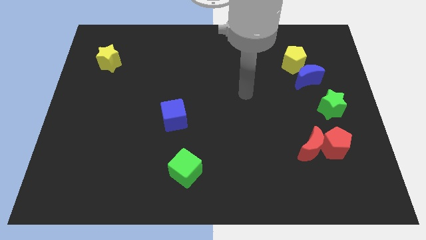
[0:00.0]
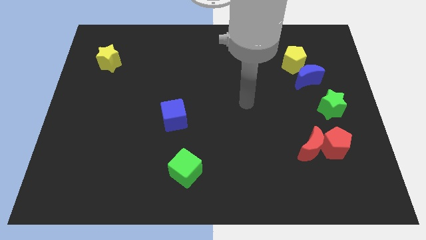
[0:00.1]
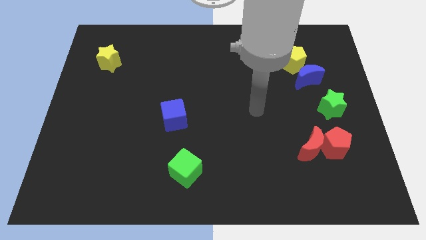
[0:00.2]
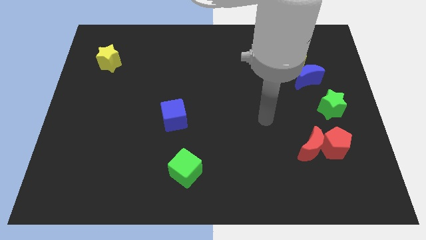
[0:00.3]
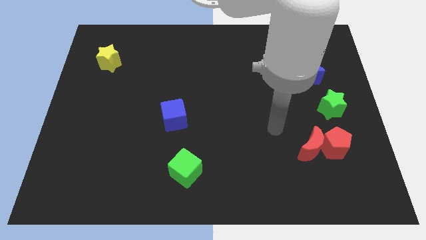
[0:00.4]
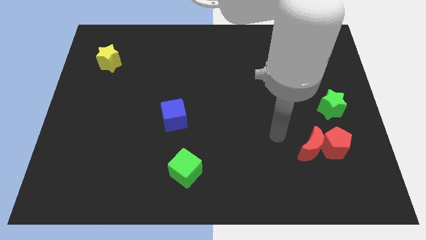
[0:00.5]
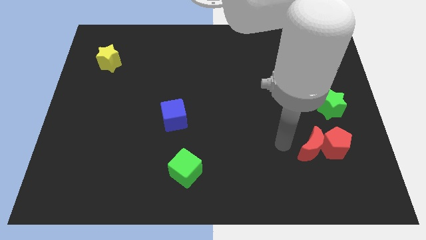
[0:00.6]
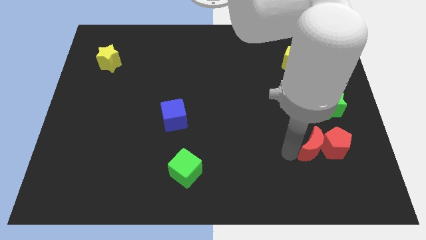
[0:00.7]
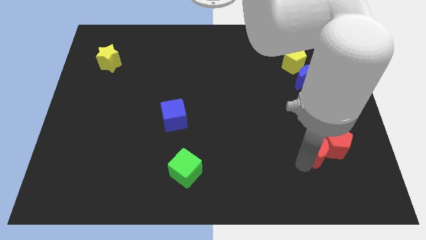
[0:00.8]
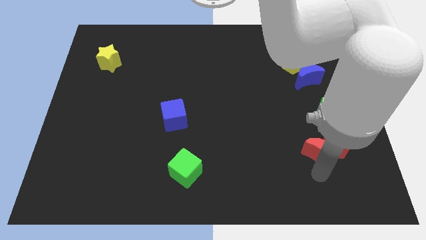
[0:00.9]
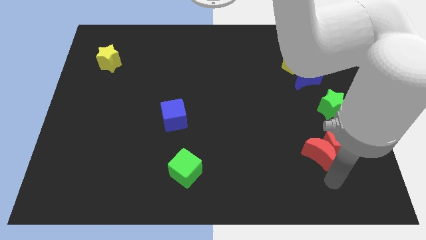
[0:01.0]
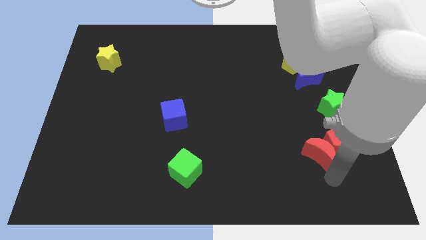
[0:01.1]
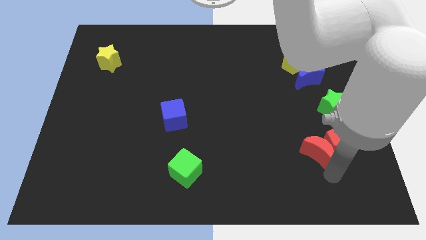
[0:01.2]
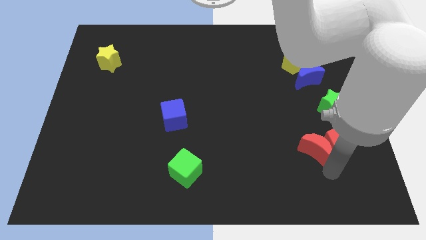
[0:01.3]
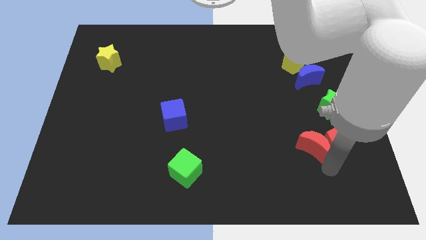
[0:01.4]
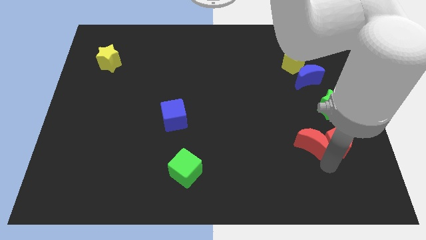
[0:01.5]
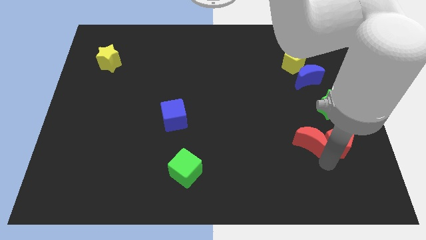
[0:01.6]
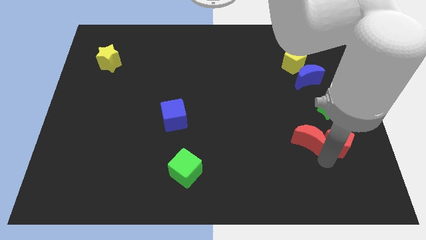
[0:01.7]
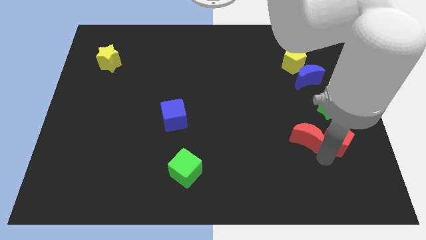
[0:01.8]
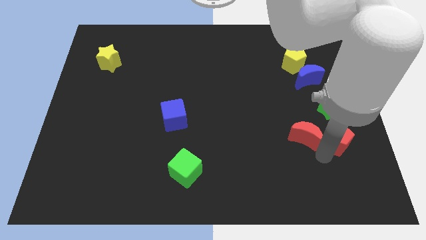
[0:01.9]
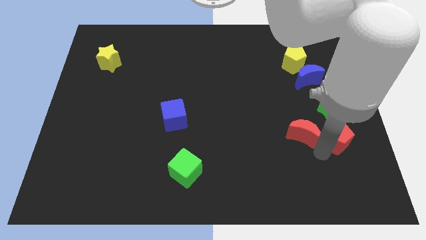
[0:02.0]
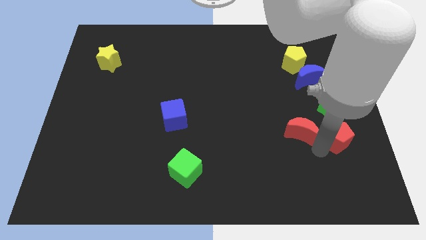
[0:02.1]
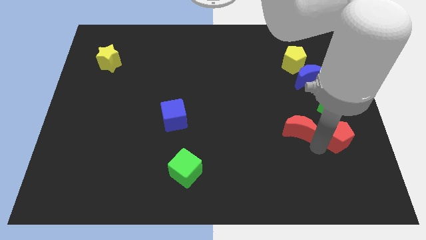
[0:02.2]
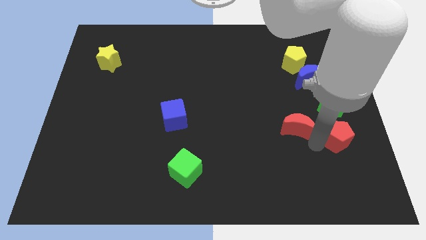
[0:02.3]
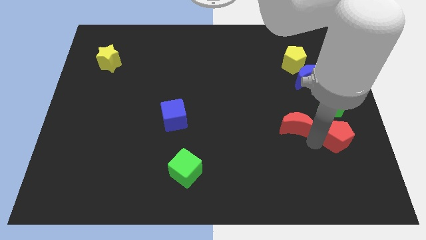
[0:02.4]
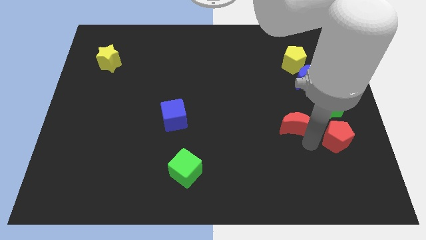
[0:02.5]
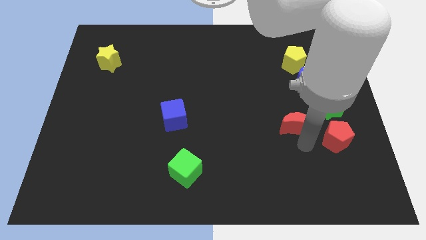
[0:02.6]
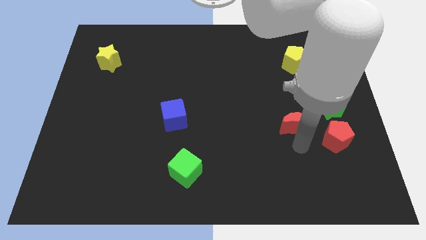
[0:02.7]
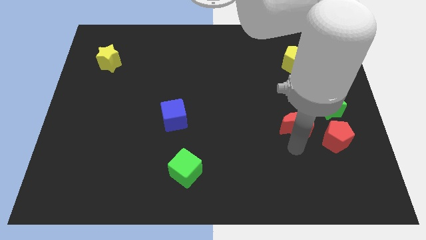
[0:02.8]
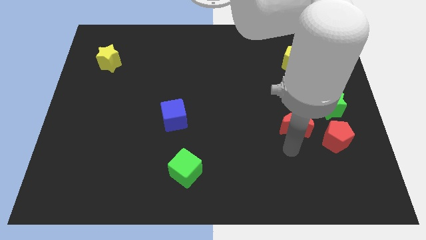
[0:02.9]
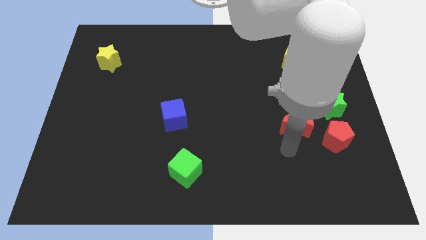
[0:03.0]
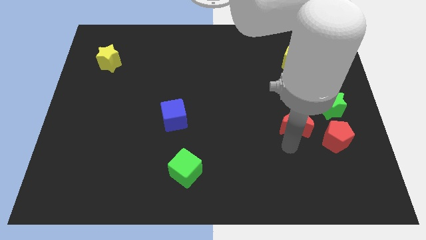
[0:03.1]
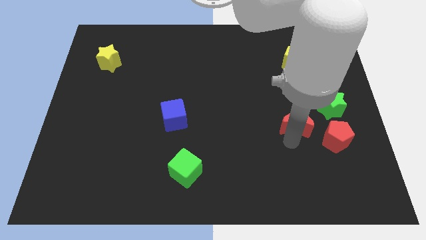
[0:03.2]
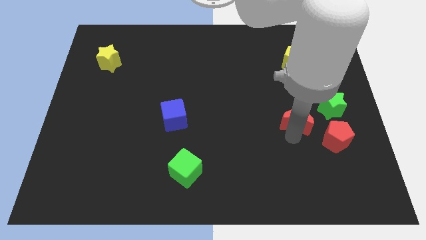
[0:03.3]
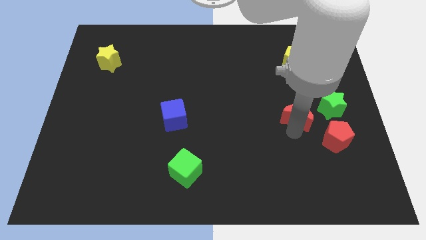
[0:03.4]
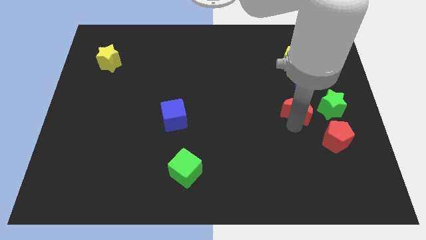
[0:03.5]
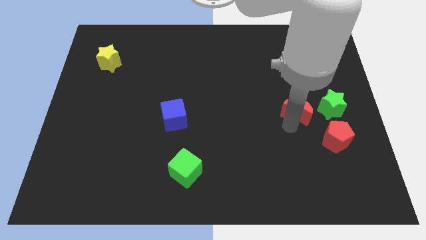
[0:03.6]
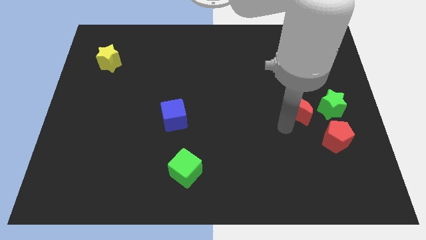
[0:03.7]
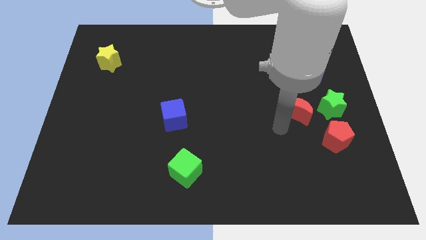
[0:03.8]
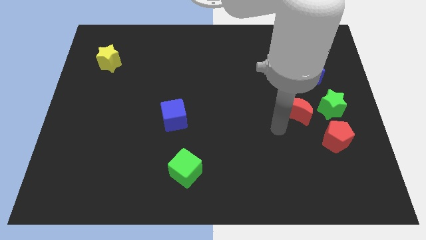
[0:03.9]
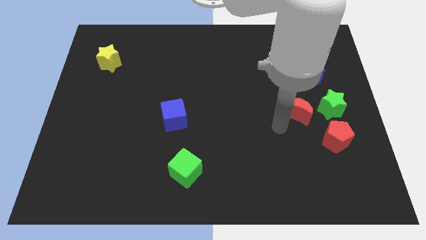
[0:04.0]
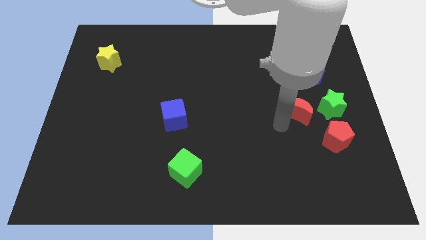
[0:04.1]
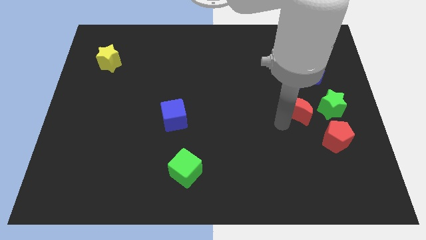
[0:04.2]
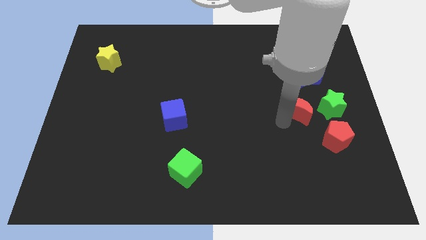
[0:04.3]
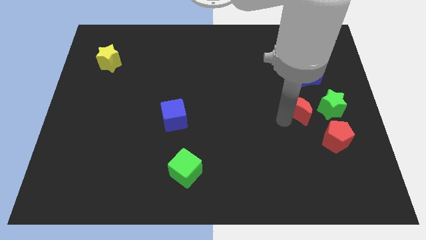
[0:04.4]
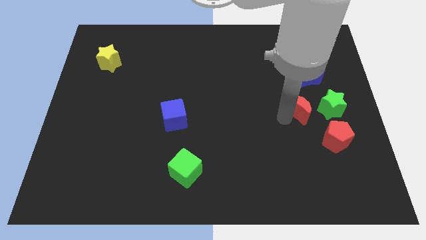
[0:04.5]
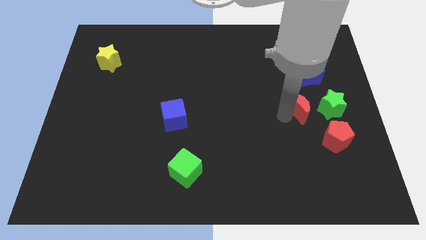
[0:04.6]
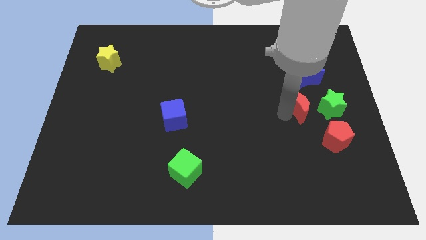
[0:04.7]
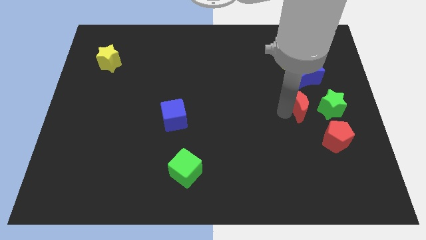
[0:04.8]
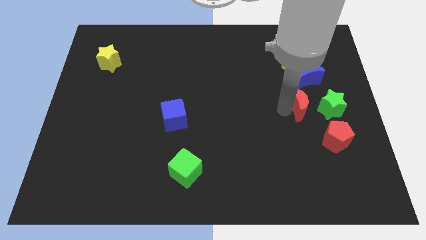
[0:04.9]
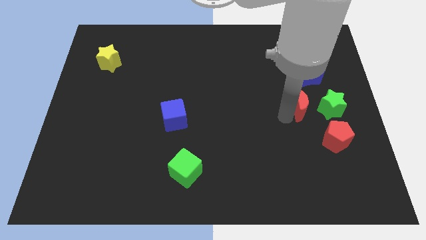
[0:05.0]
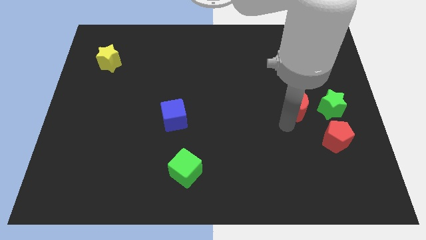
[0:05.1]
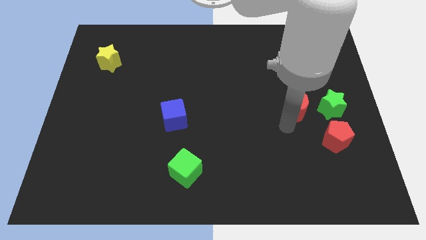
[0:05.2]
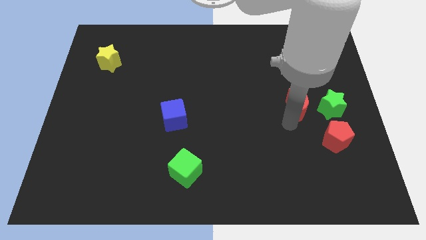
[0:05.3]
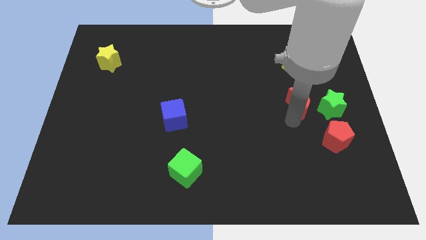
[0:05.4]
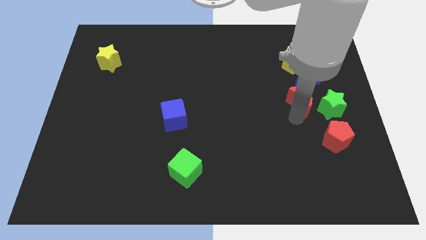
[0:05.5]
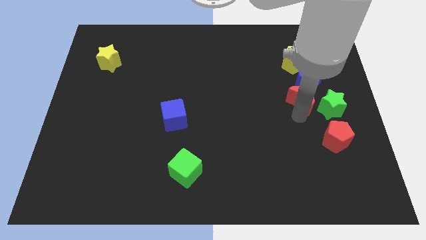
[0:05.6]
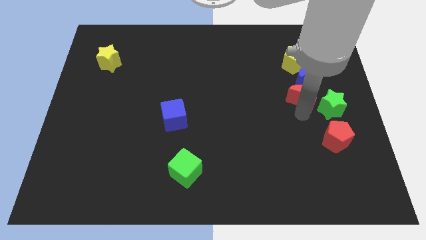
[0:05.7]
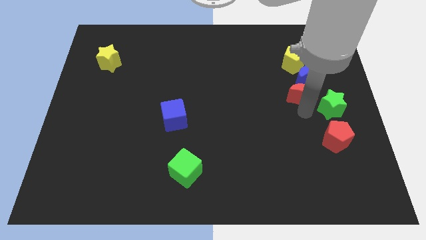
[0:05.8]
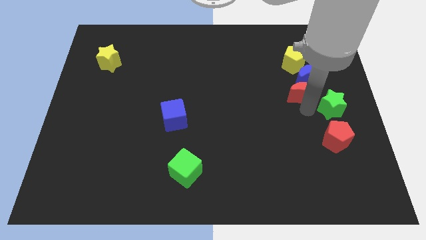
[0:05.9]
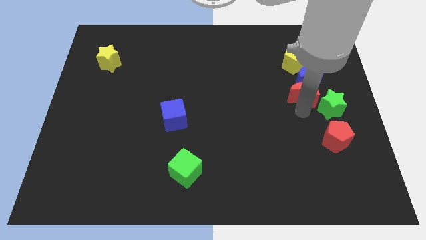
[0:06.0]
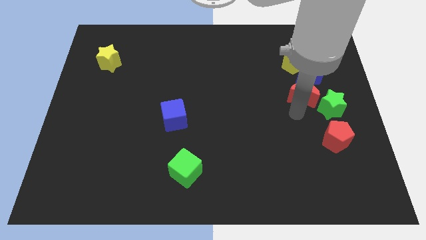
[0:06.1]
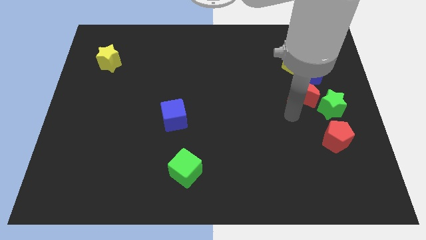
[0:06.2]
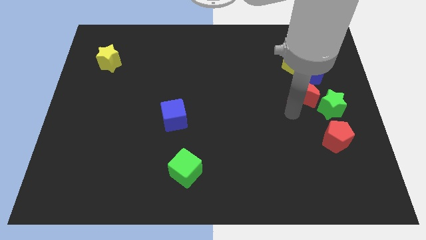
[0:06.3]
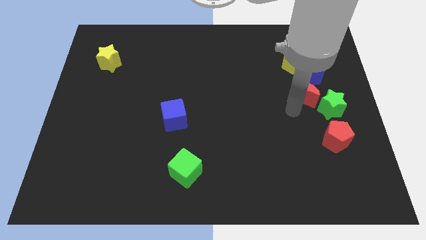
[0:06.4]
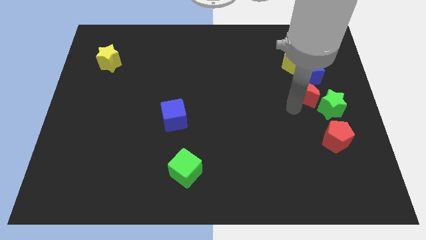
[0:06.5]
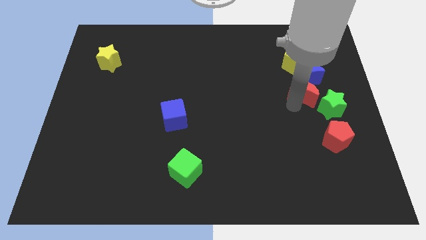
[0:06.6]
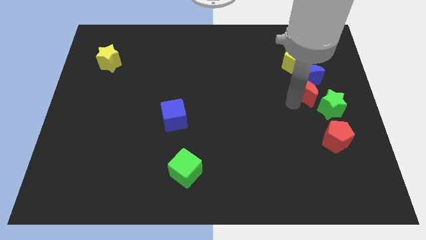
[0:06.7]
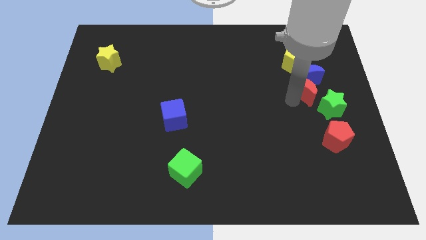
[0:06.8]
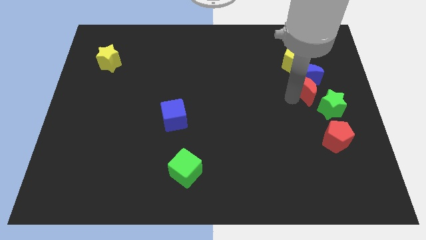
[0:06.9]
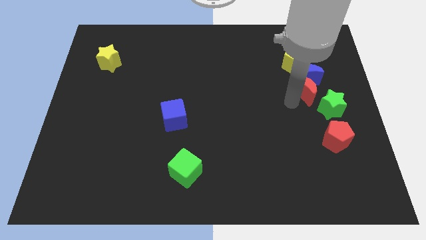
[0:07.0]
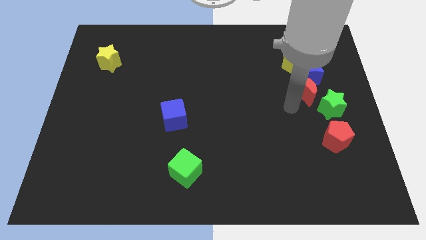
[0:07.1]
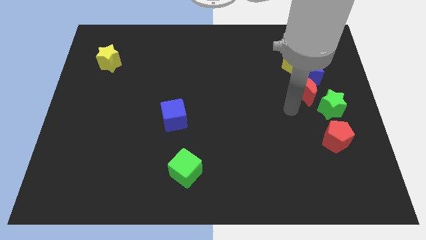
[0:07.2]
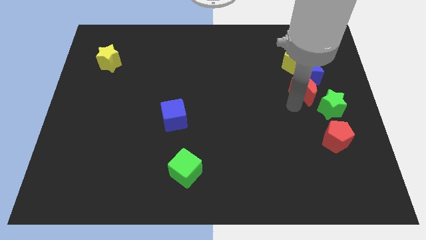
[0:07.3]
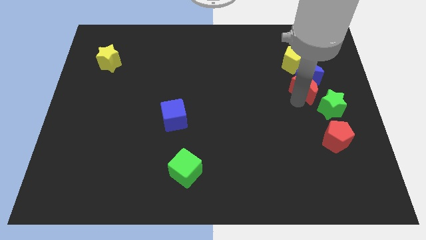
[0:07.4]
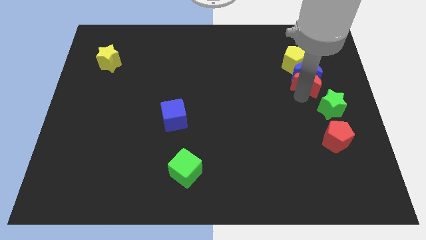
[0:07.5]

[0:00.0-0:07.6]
move the red moon diagonally down and to the right of the yellow pentagon
